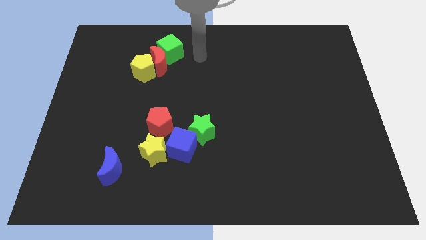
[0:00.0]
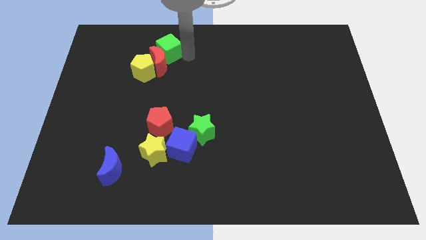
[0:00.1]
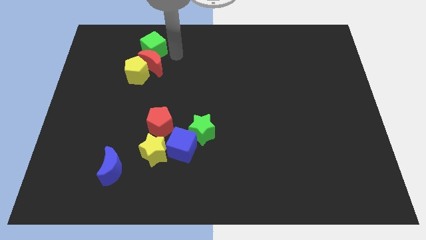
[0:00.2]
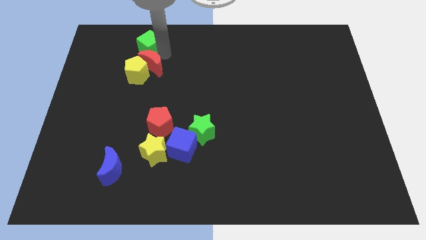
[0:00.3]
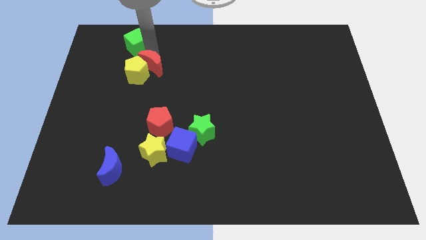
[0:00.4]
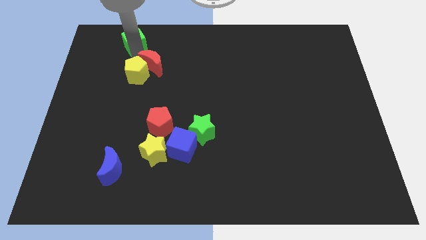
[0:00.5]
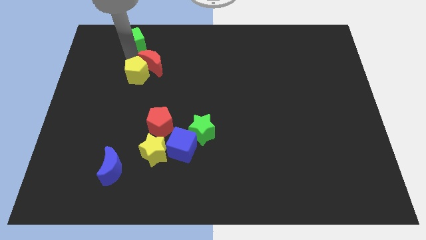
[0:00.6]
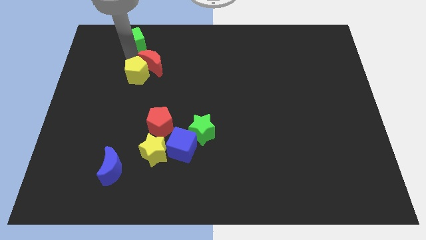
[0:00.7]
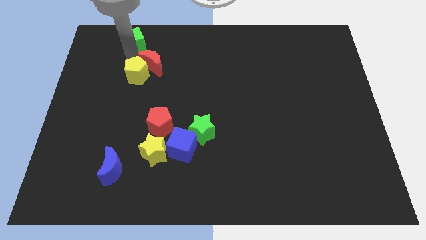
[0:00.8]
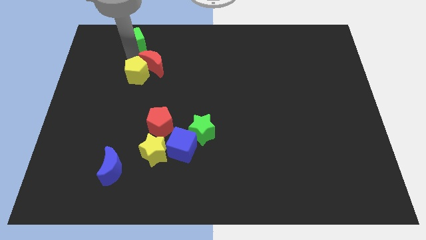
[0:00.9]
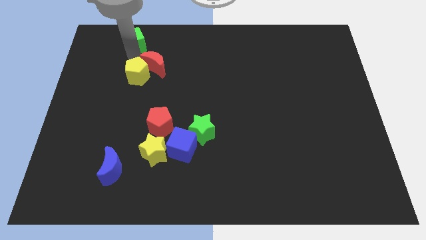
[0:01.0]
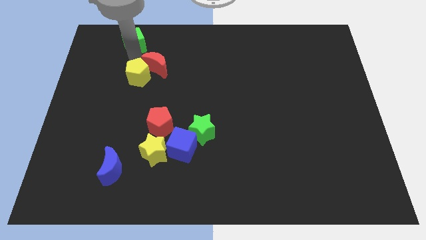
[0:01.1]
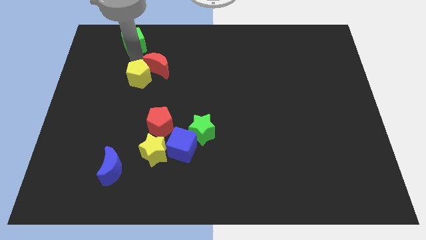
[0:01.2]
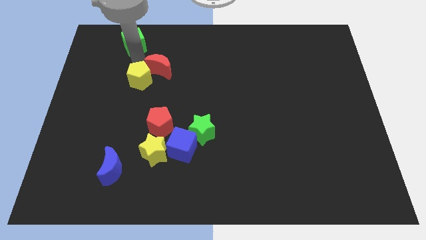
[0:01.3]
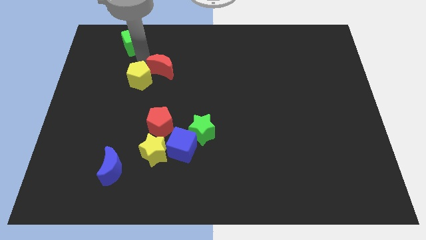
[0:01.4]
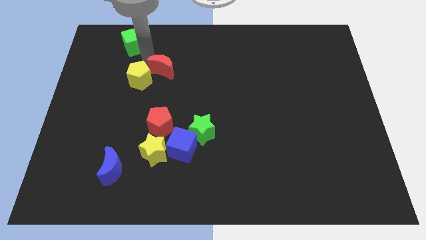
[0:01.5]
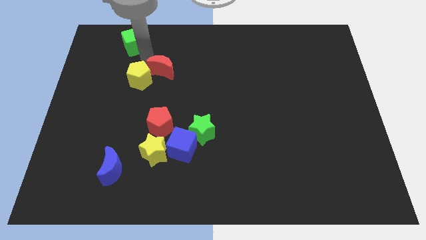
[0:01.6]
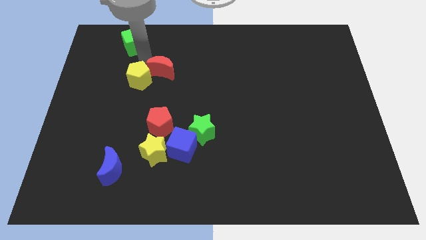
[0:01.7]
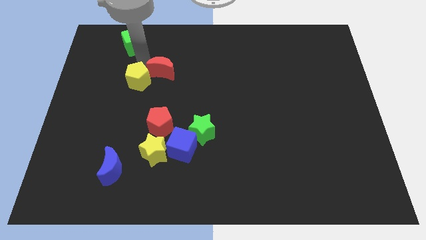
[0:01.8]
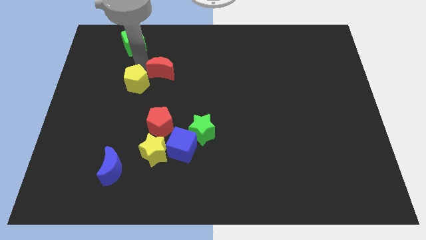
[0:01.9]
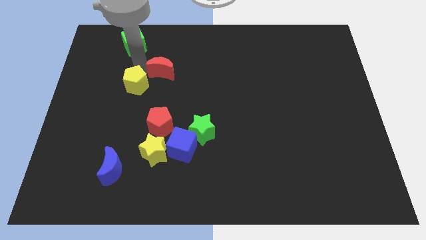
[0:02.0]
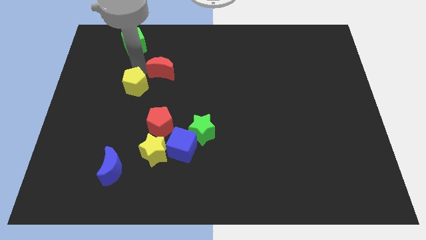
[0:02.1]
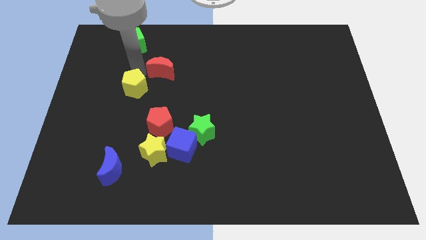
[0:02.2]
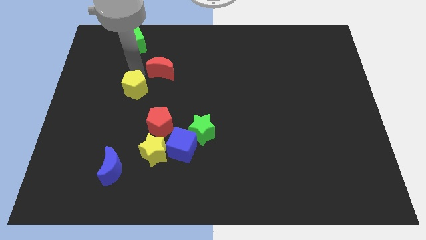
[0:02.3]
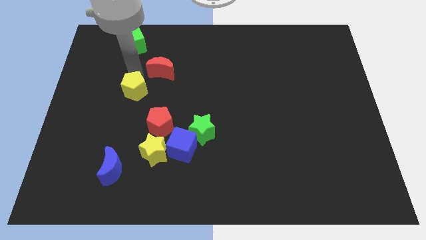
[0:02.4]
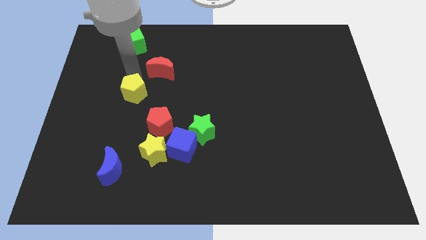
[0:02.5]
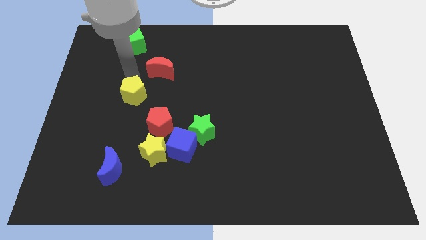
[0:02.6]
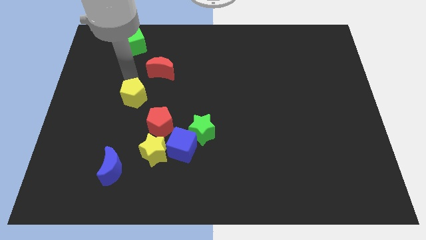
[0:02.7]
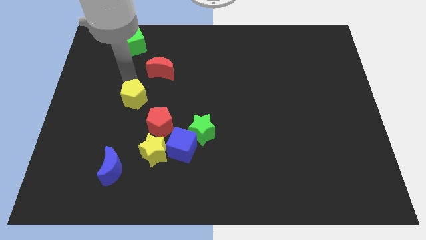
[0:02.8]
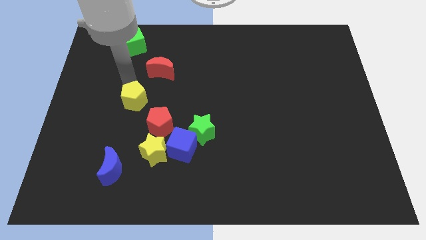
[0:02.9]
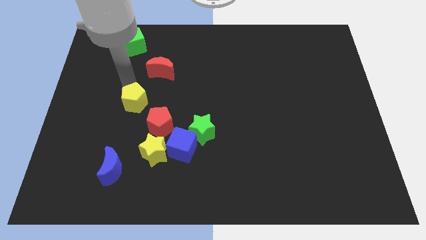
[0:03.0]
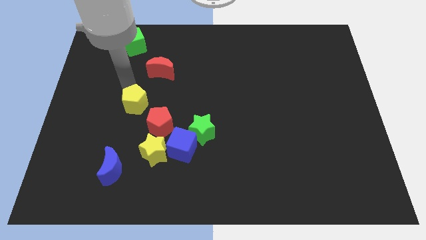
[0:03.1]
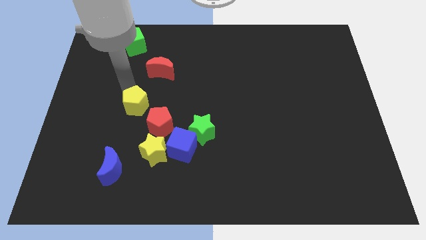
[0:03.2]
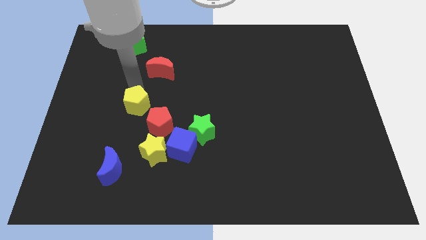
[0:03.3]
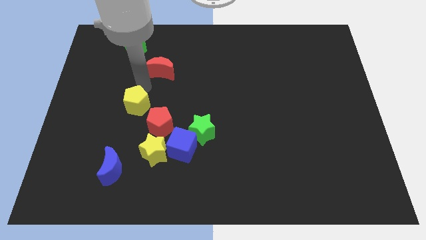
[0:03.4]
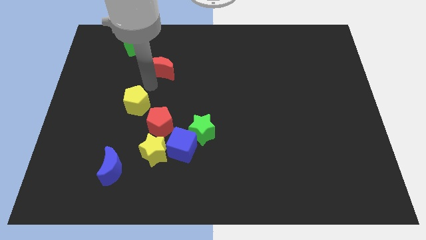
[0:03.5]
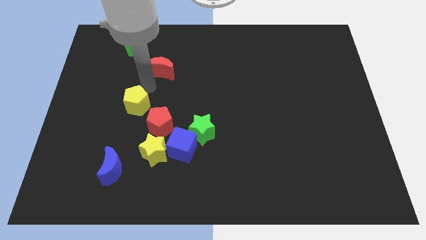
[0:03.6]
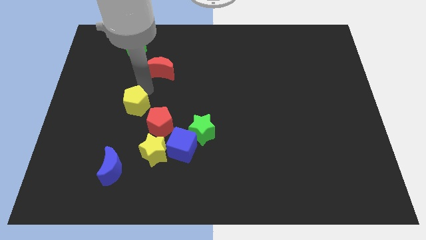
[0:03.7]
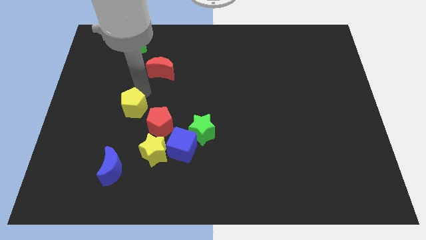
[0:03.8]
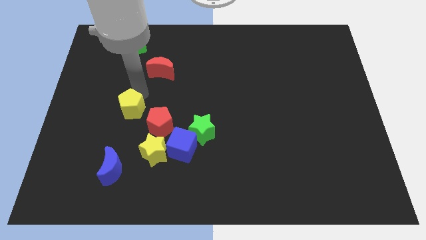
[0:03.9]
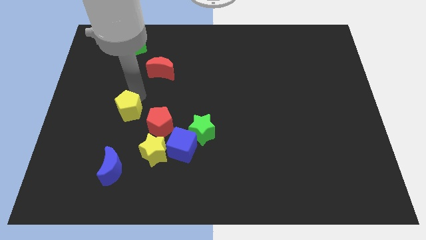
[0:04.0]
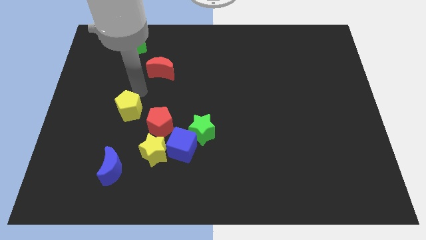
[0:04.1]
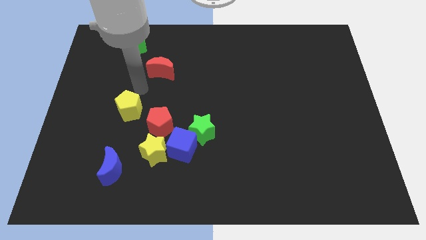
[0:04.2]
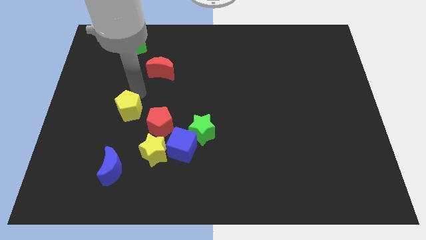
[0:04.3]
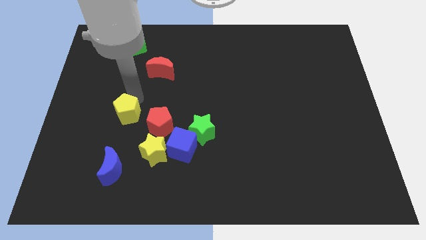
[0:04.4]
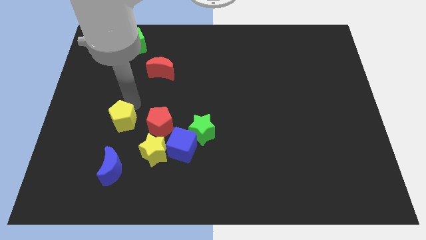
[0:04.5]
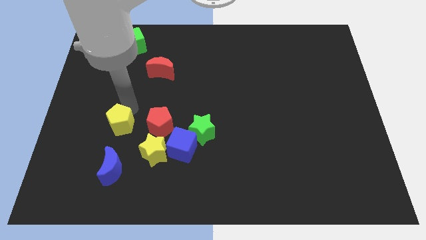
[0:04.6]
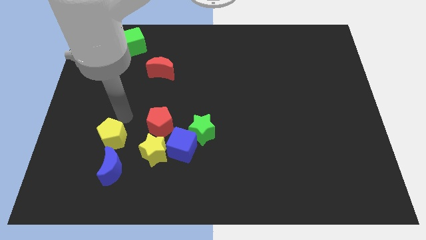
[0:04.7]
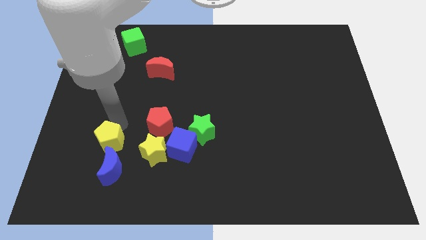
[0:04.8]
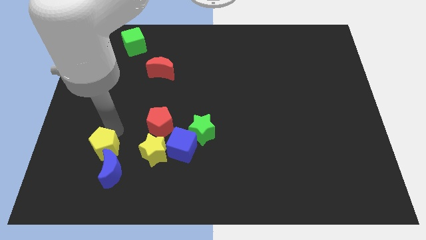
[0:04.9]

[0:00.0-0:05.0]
push the yellow pentagon to the blue moon

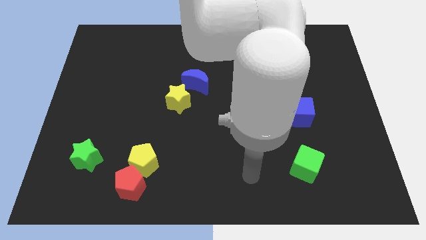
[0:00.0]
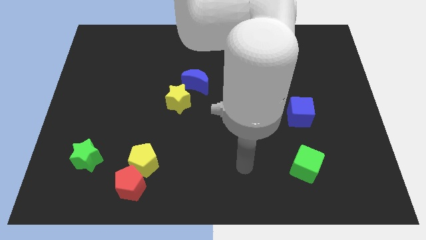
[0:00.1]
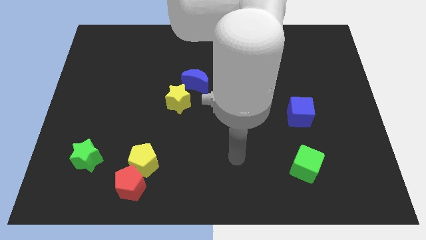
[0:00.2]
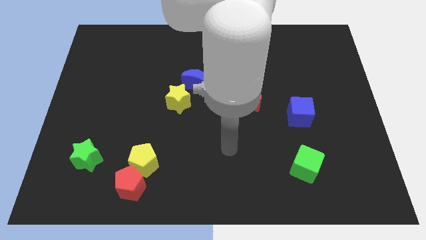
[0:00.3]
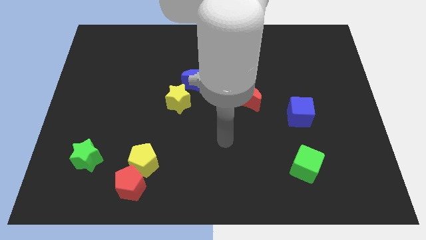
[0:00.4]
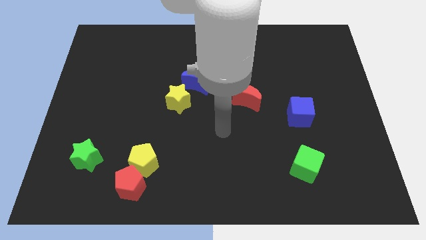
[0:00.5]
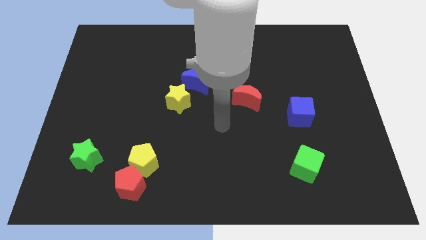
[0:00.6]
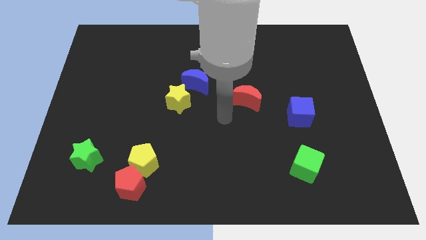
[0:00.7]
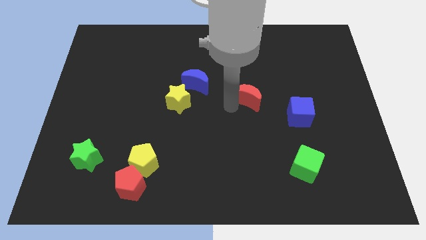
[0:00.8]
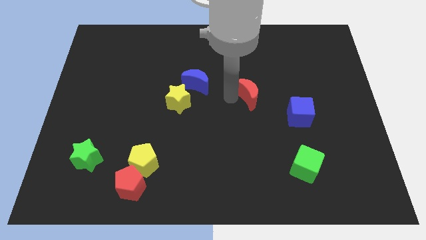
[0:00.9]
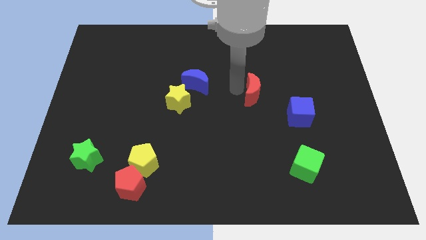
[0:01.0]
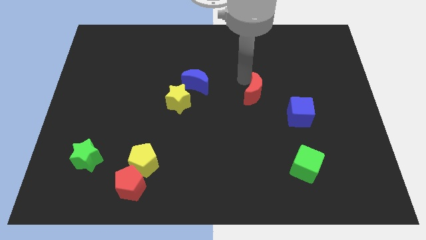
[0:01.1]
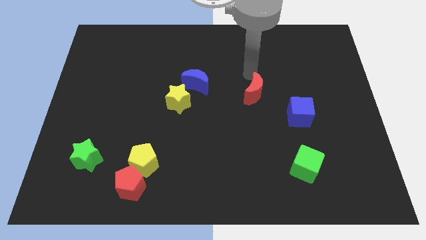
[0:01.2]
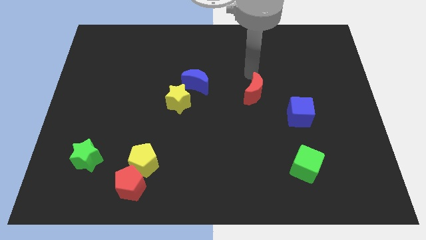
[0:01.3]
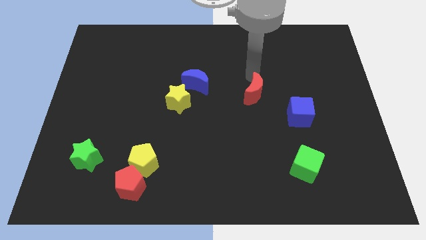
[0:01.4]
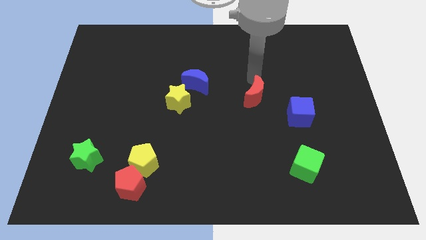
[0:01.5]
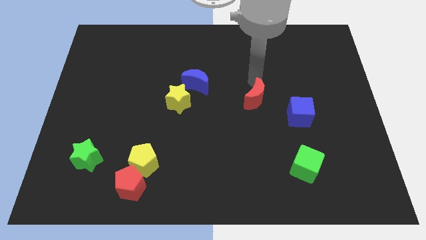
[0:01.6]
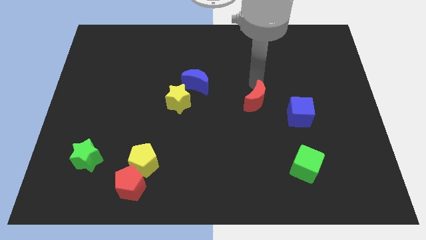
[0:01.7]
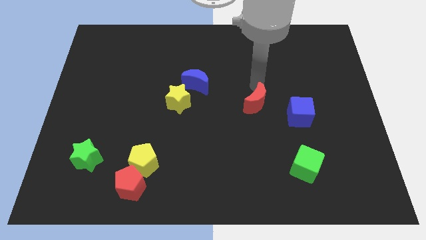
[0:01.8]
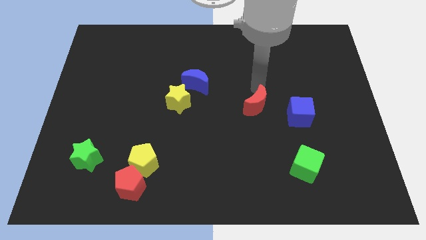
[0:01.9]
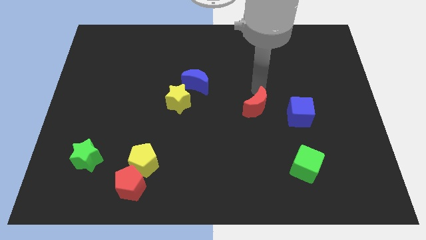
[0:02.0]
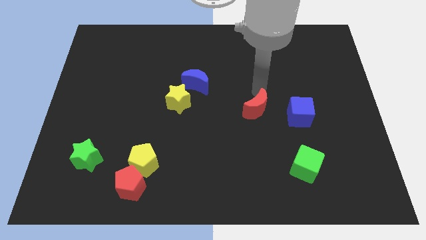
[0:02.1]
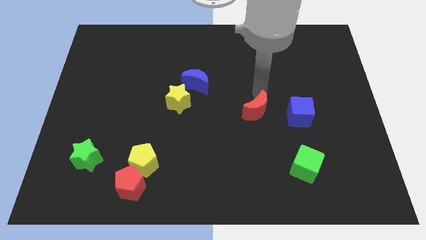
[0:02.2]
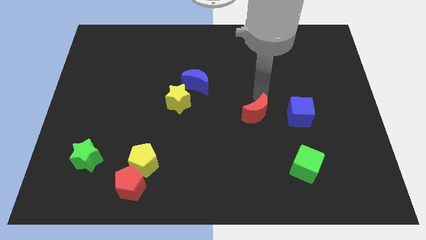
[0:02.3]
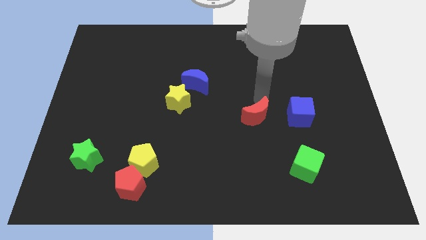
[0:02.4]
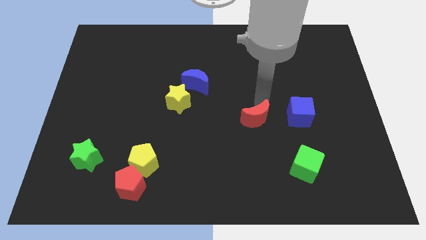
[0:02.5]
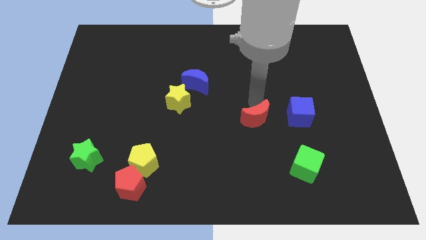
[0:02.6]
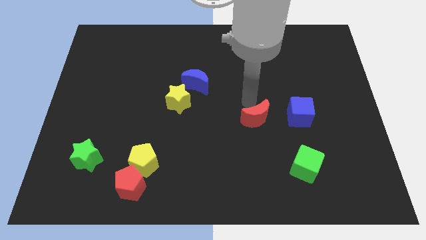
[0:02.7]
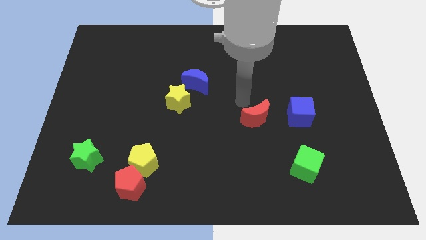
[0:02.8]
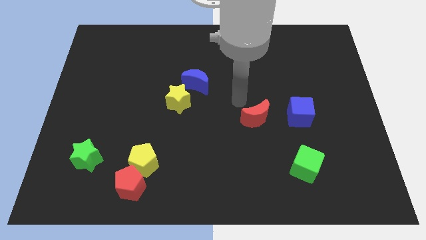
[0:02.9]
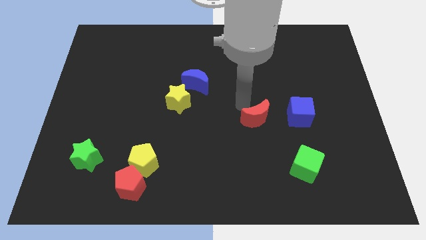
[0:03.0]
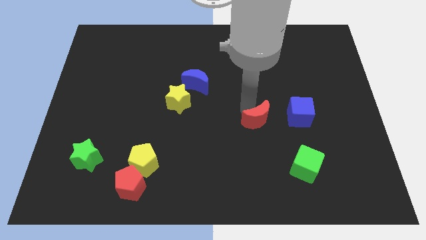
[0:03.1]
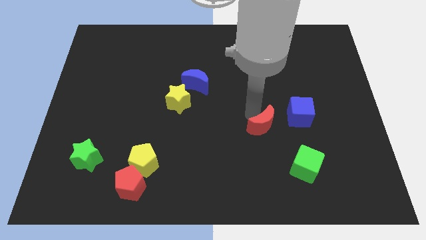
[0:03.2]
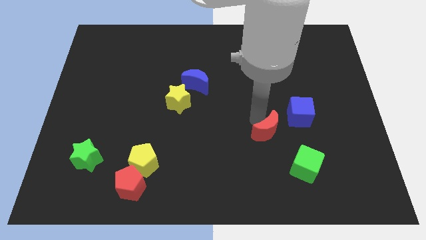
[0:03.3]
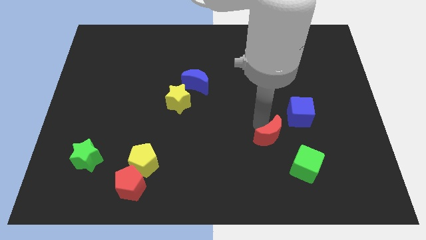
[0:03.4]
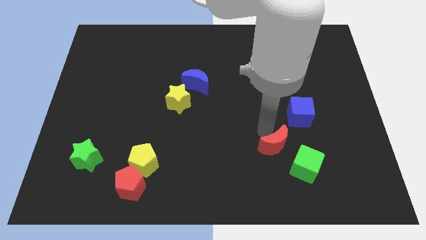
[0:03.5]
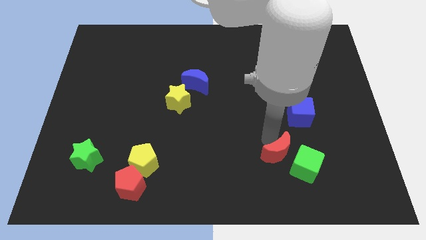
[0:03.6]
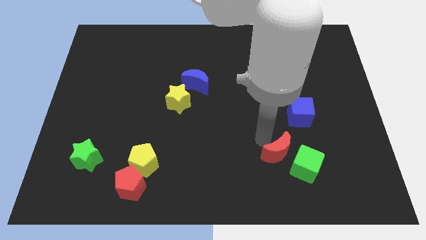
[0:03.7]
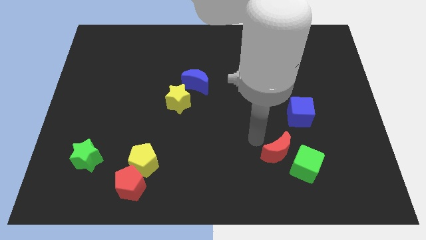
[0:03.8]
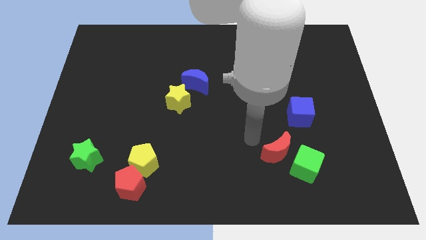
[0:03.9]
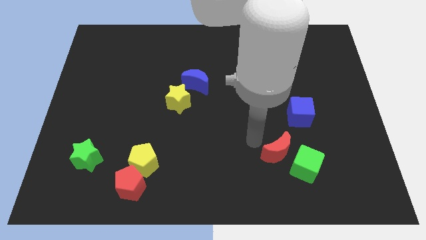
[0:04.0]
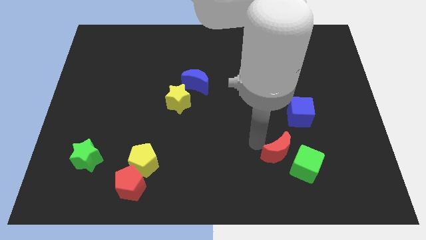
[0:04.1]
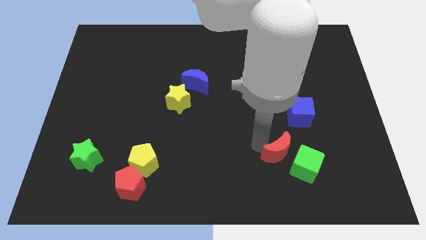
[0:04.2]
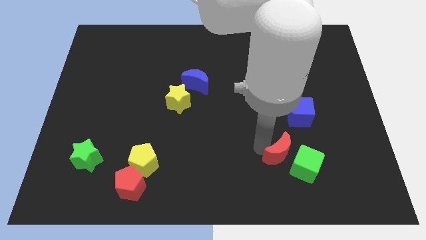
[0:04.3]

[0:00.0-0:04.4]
push the red moon to the green cube
